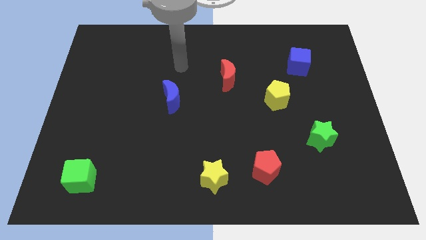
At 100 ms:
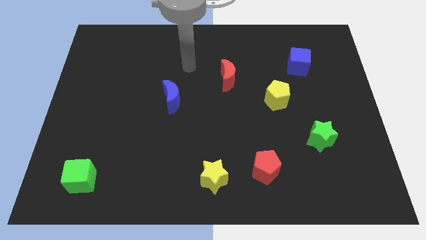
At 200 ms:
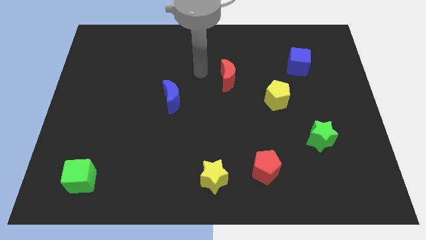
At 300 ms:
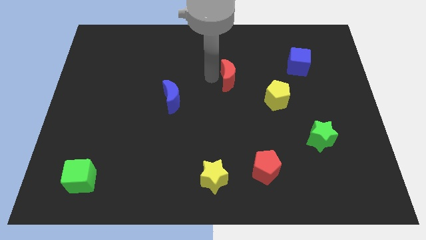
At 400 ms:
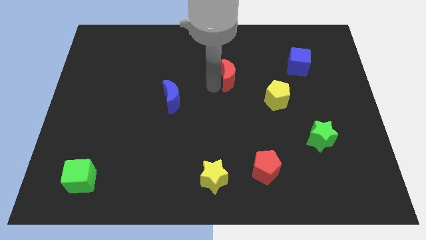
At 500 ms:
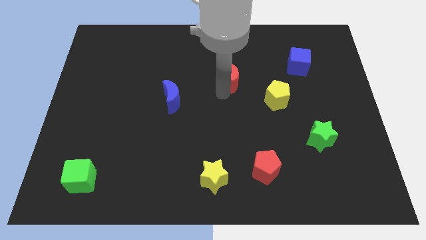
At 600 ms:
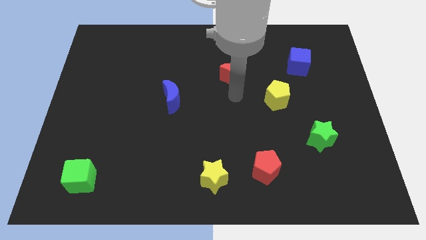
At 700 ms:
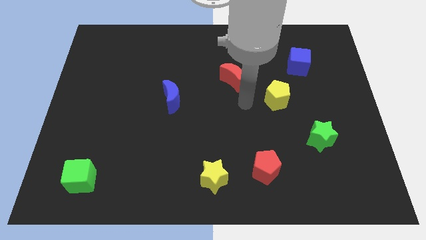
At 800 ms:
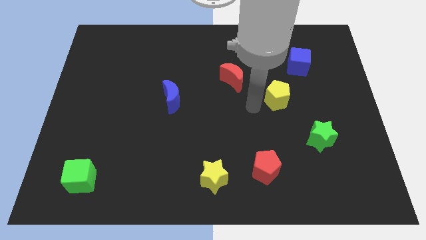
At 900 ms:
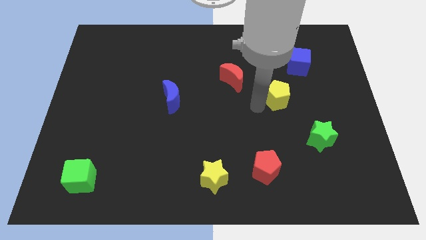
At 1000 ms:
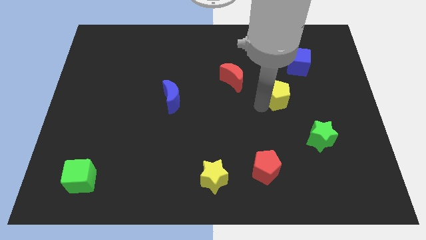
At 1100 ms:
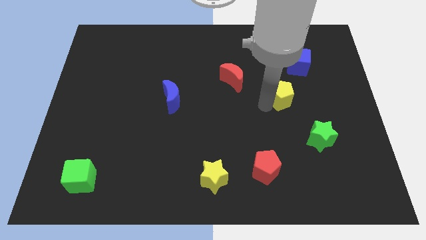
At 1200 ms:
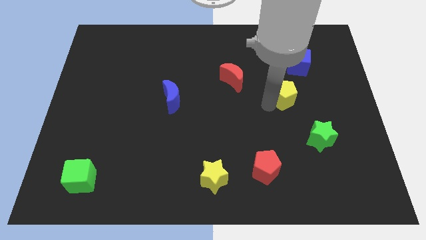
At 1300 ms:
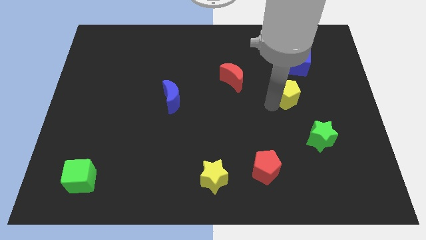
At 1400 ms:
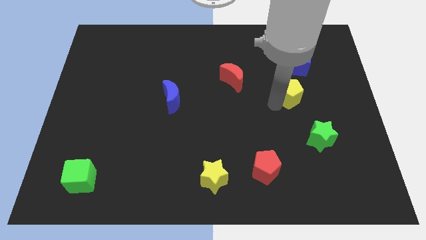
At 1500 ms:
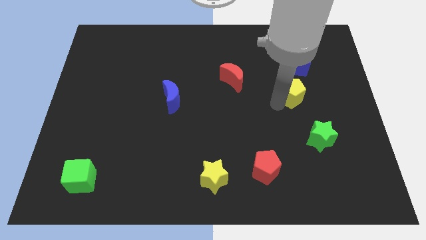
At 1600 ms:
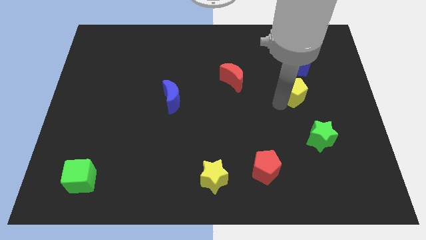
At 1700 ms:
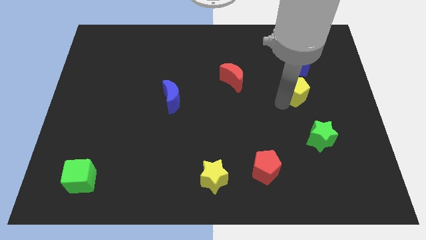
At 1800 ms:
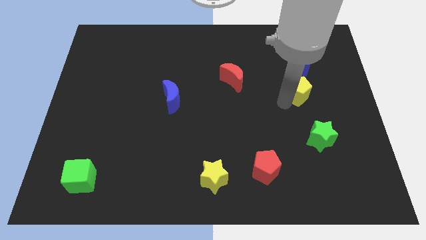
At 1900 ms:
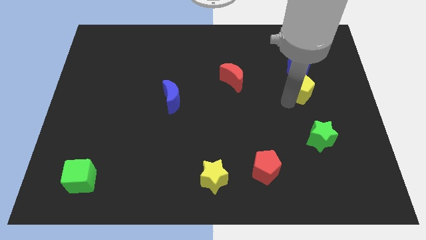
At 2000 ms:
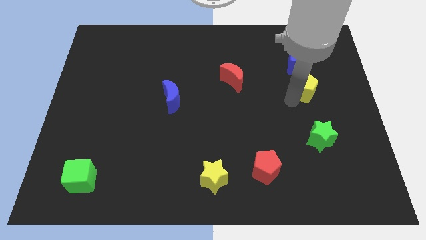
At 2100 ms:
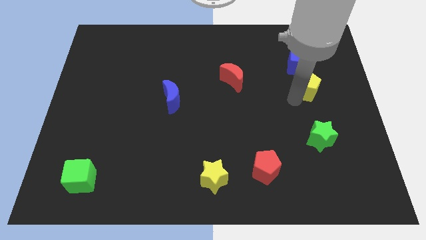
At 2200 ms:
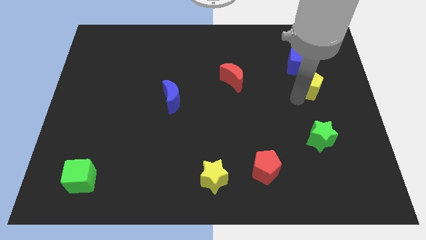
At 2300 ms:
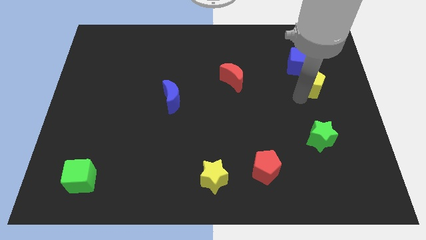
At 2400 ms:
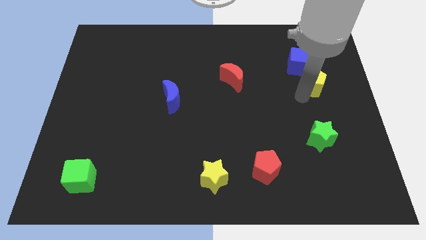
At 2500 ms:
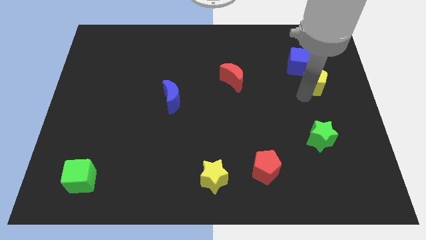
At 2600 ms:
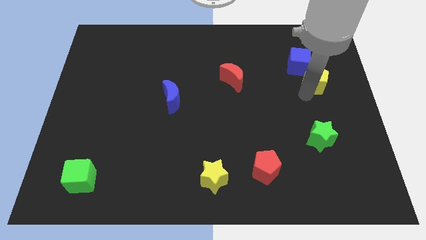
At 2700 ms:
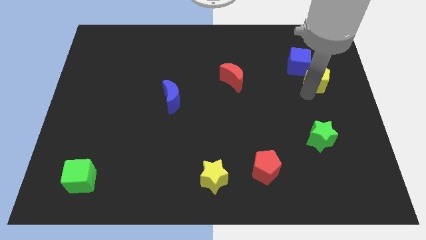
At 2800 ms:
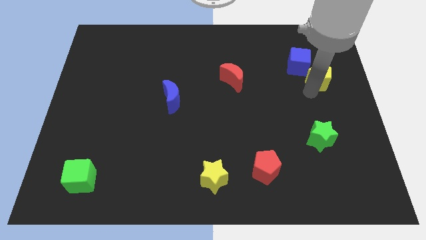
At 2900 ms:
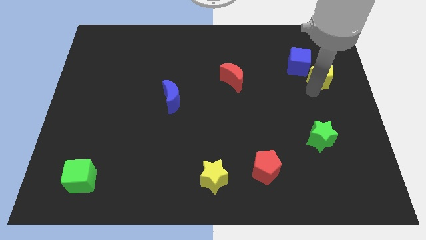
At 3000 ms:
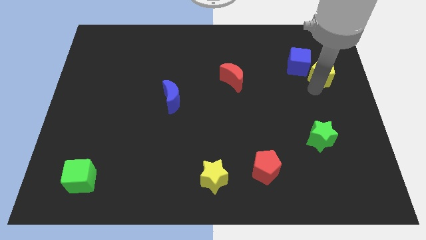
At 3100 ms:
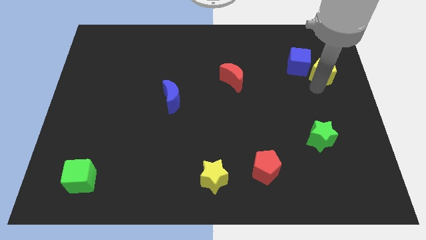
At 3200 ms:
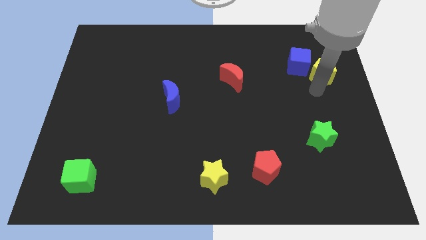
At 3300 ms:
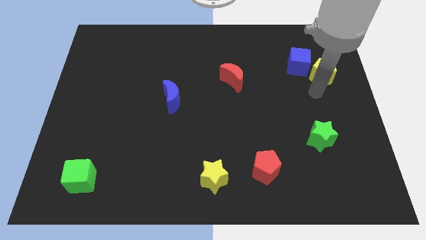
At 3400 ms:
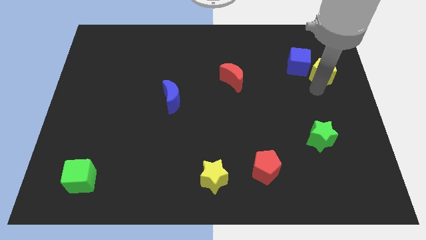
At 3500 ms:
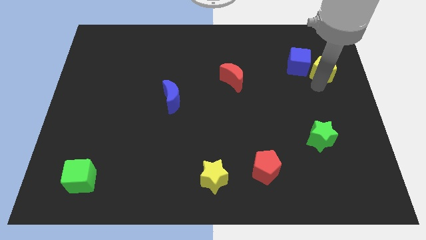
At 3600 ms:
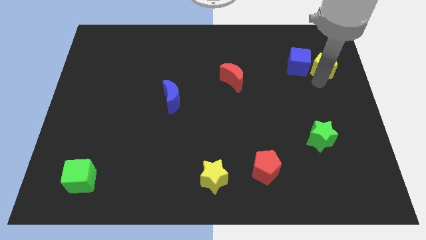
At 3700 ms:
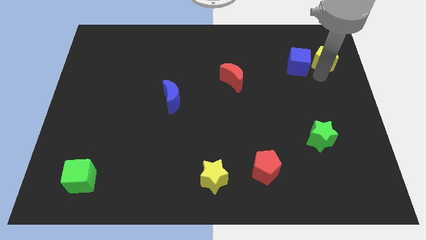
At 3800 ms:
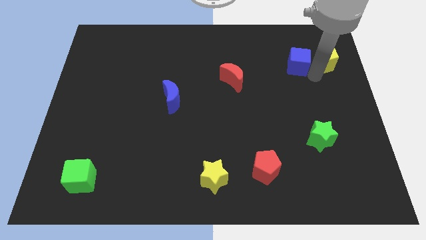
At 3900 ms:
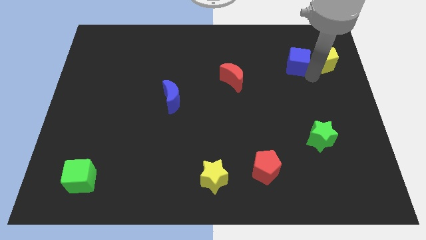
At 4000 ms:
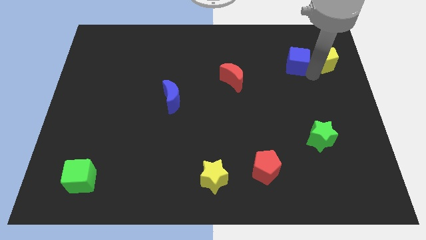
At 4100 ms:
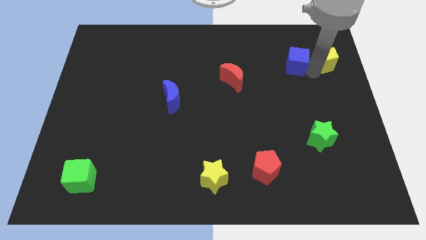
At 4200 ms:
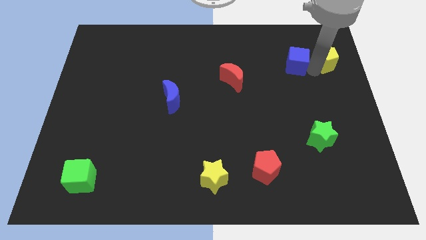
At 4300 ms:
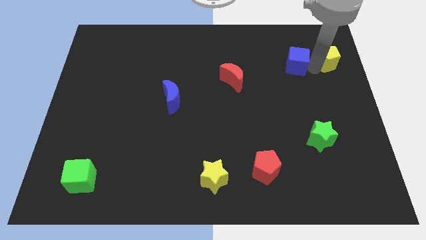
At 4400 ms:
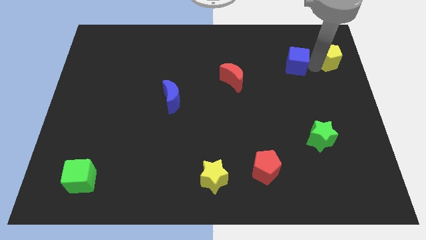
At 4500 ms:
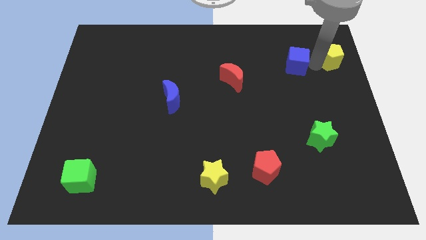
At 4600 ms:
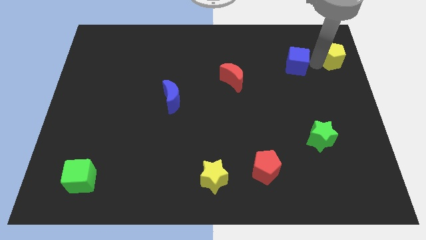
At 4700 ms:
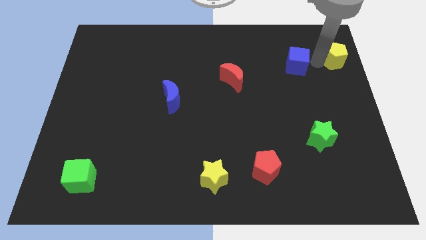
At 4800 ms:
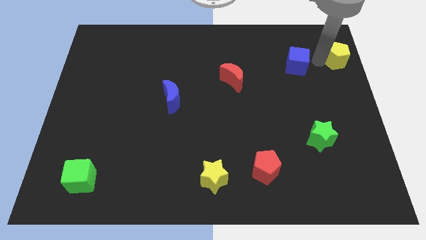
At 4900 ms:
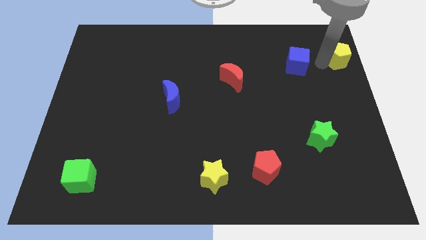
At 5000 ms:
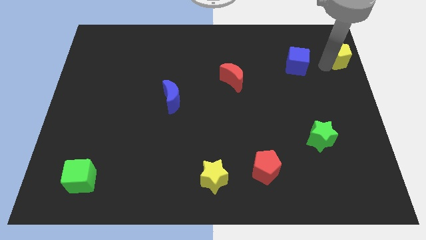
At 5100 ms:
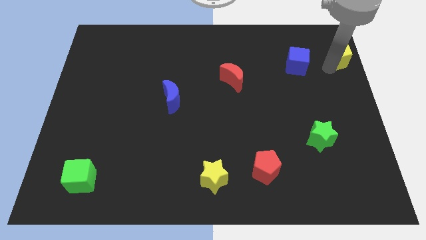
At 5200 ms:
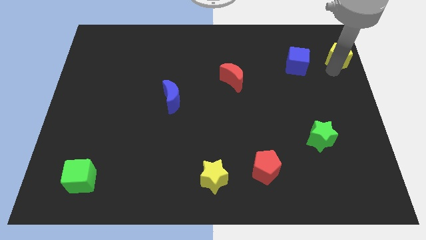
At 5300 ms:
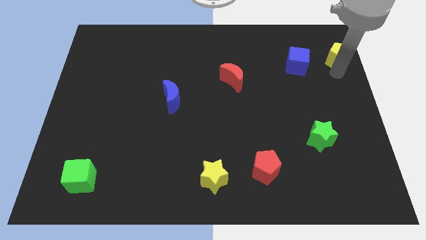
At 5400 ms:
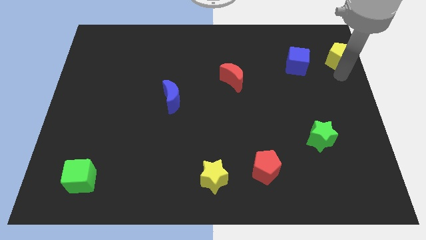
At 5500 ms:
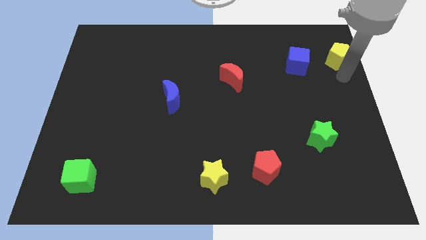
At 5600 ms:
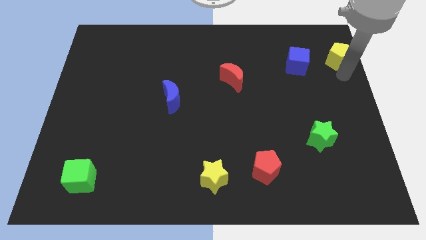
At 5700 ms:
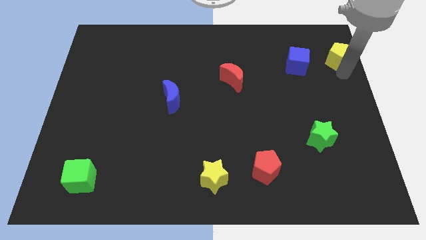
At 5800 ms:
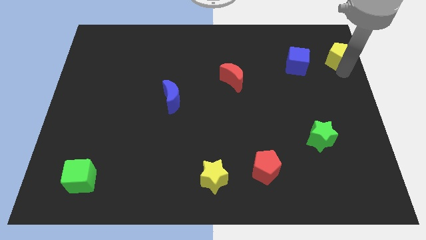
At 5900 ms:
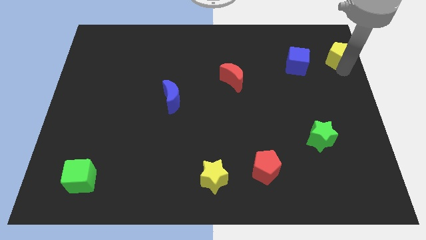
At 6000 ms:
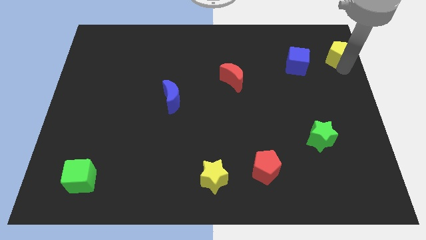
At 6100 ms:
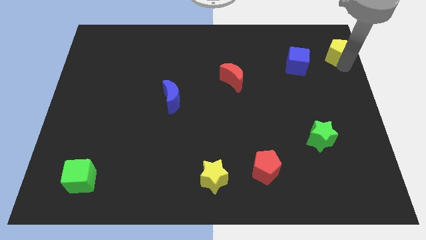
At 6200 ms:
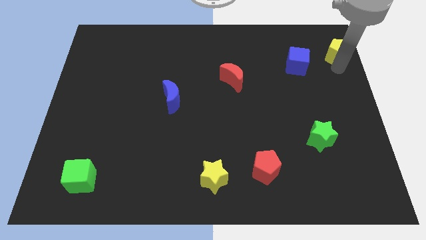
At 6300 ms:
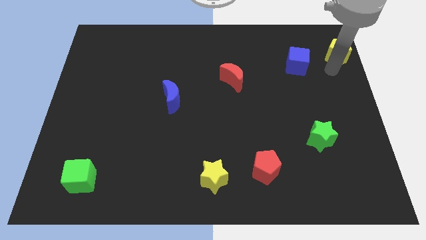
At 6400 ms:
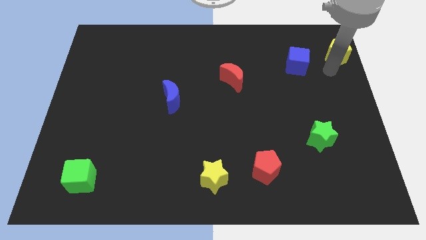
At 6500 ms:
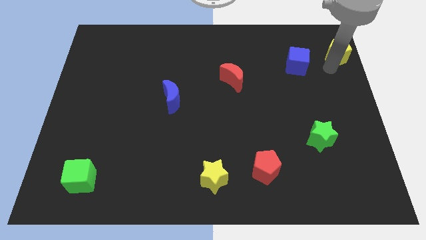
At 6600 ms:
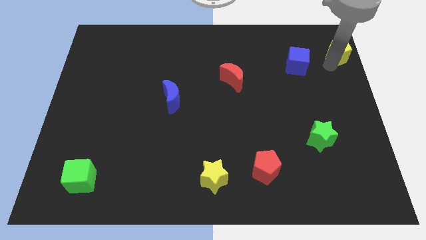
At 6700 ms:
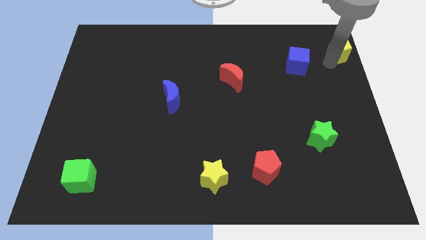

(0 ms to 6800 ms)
put the yellow pentagon to the top right
